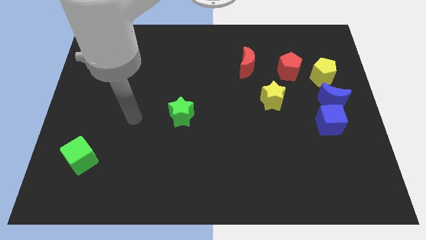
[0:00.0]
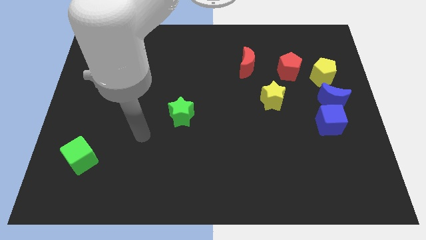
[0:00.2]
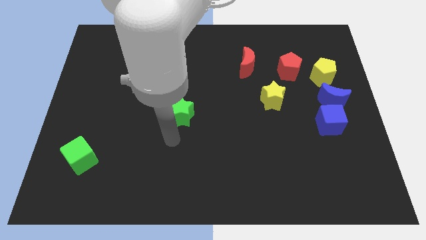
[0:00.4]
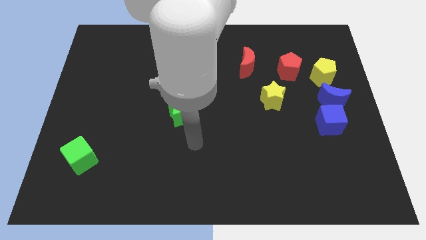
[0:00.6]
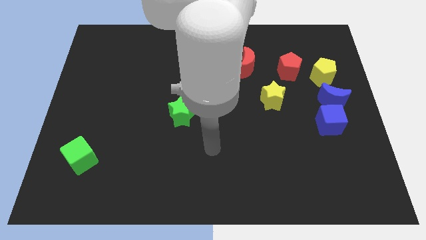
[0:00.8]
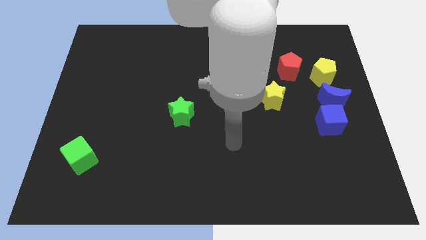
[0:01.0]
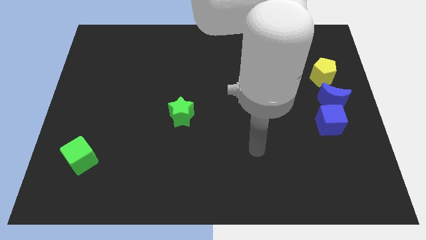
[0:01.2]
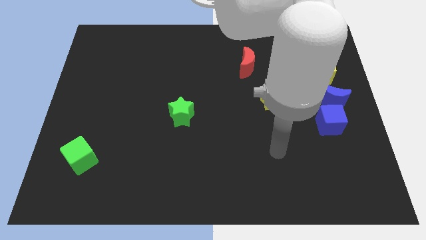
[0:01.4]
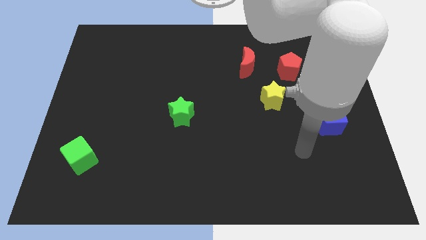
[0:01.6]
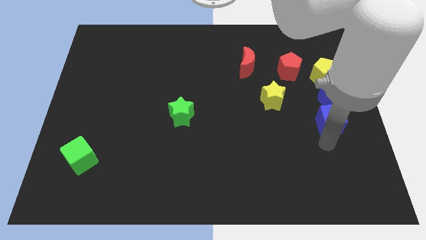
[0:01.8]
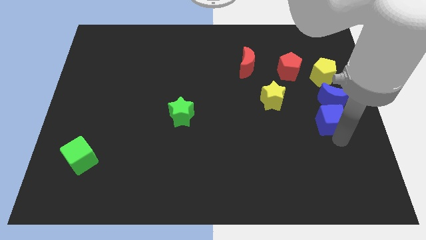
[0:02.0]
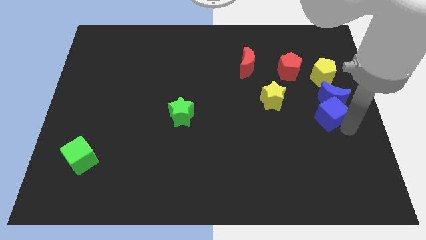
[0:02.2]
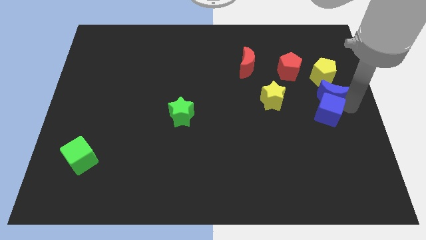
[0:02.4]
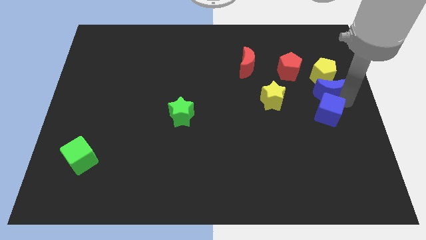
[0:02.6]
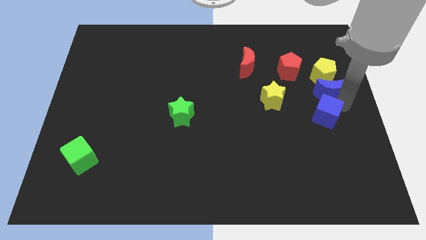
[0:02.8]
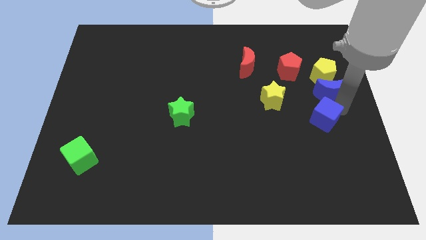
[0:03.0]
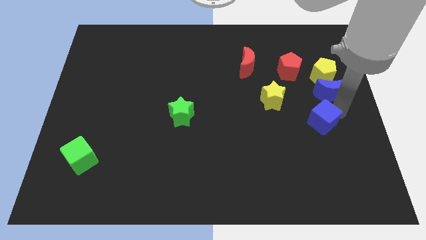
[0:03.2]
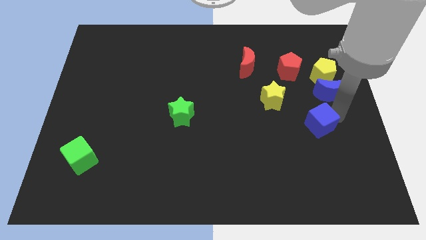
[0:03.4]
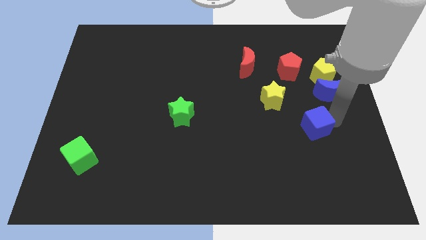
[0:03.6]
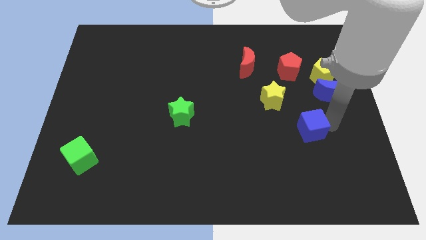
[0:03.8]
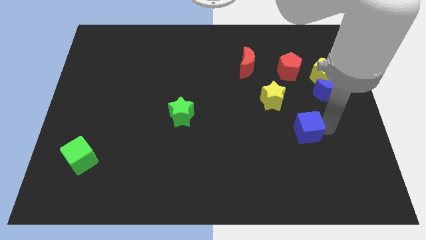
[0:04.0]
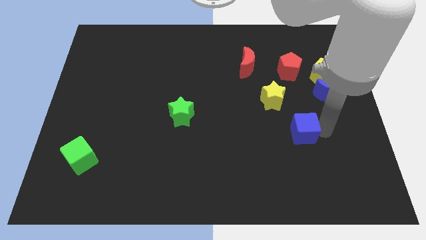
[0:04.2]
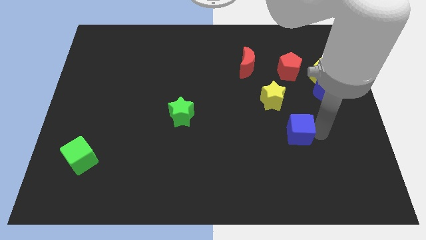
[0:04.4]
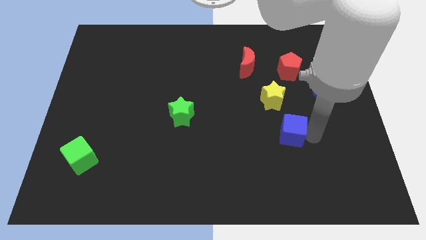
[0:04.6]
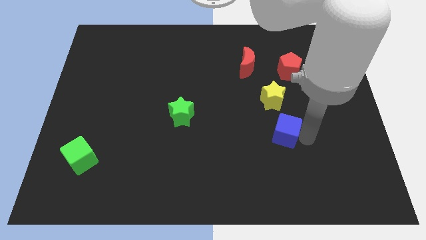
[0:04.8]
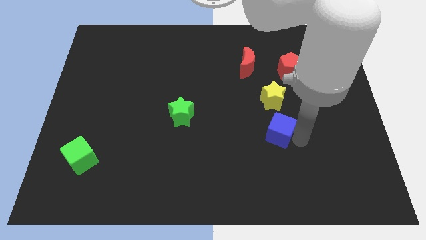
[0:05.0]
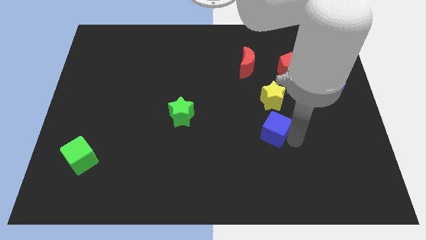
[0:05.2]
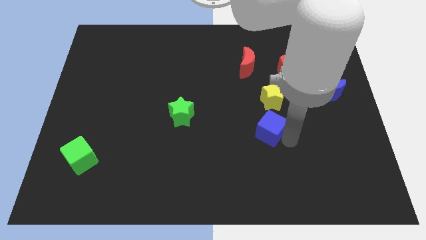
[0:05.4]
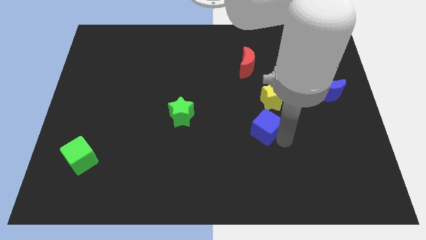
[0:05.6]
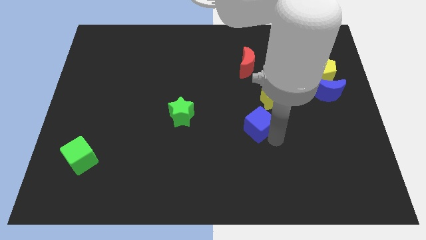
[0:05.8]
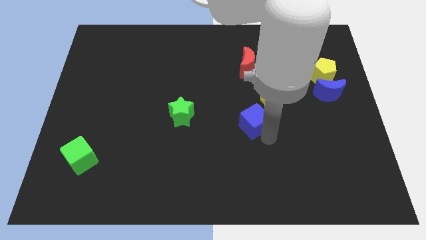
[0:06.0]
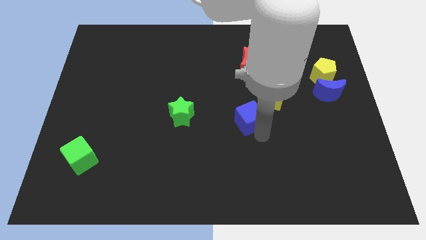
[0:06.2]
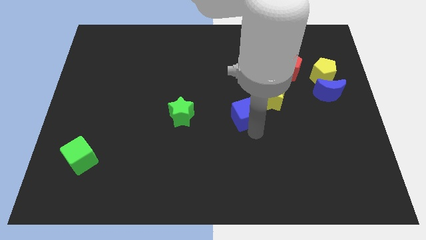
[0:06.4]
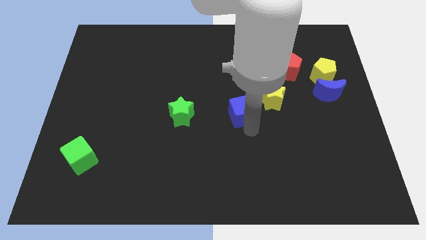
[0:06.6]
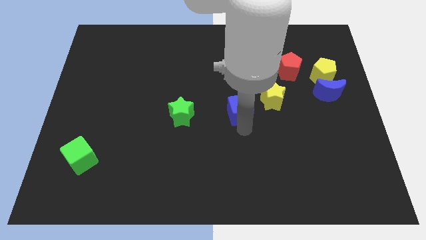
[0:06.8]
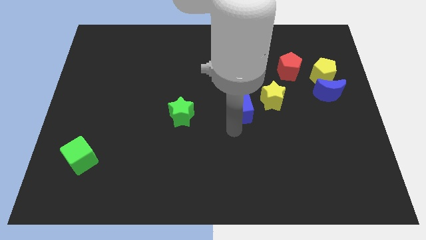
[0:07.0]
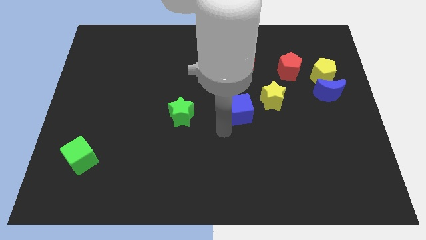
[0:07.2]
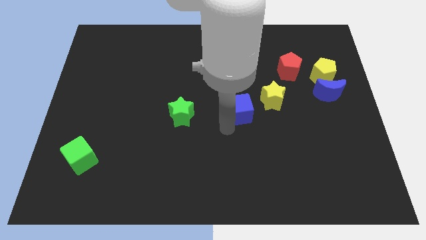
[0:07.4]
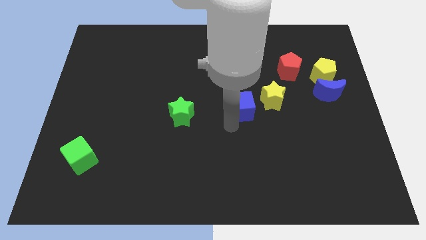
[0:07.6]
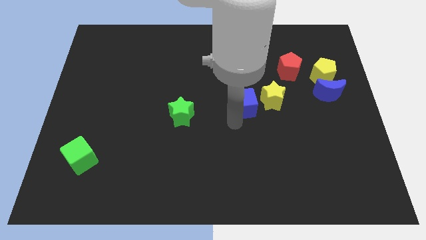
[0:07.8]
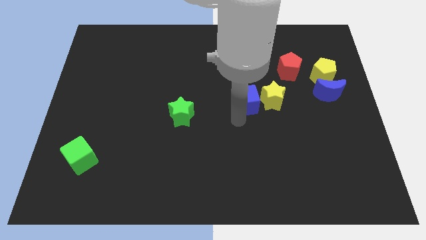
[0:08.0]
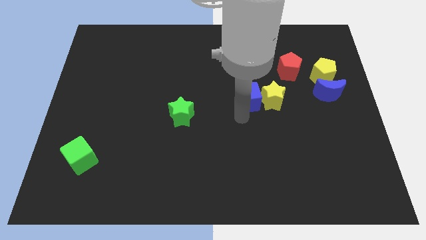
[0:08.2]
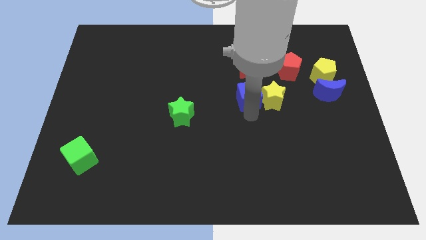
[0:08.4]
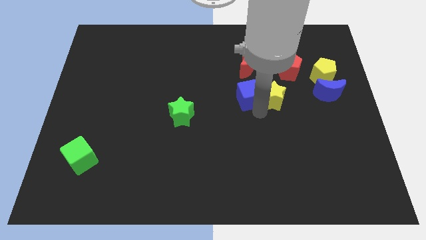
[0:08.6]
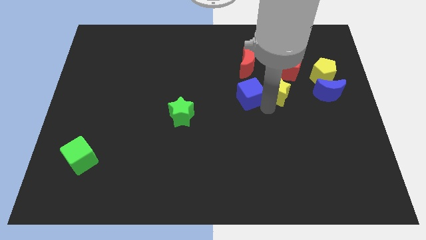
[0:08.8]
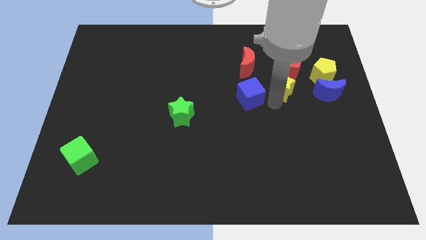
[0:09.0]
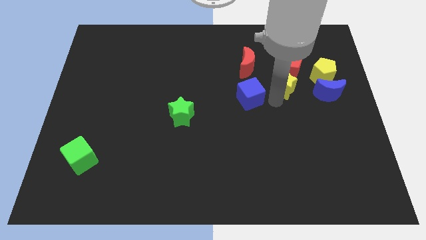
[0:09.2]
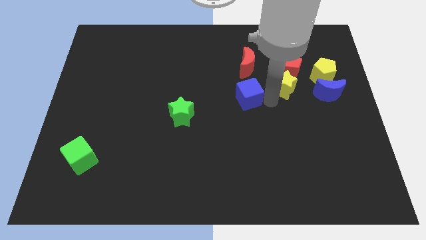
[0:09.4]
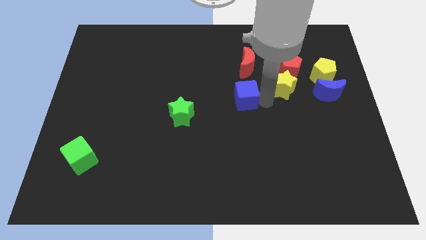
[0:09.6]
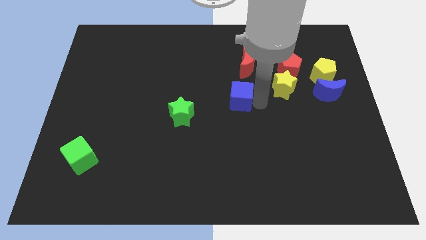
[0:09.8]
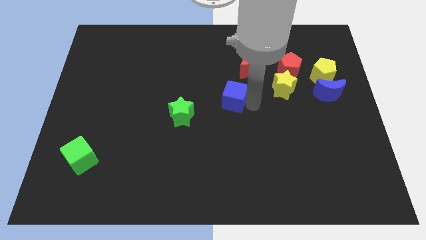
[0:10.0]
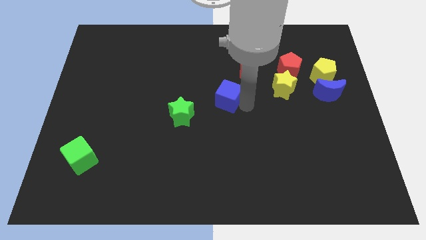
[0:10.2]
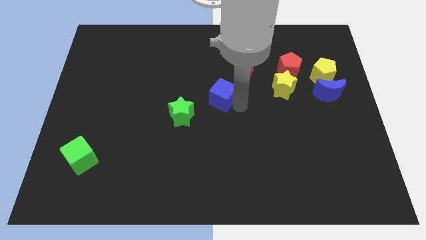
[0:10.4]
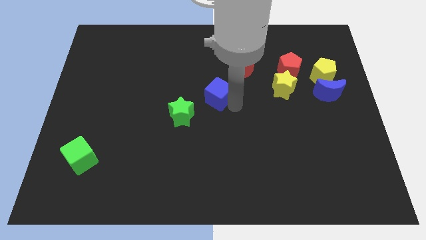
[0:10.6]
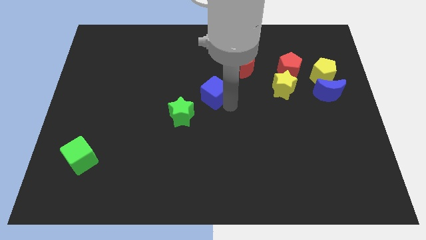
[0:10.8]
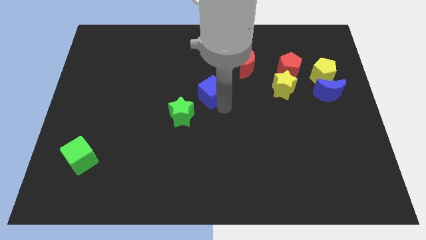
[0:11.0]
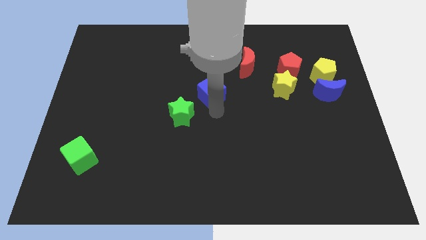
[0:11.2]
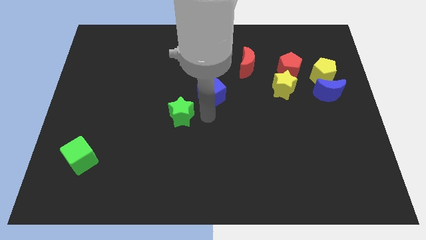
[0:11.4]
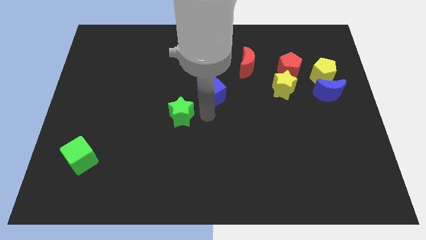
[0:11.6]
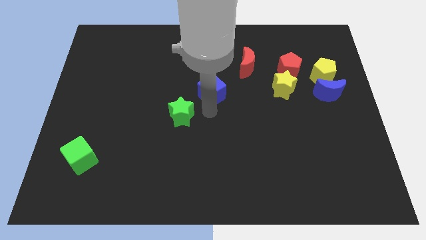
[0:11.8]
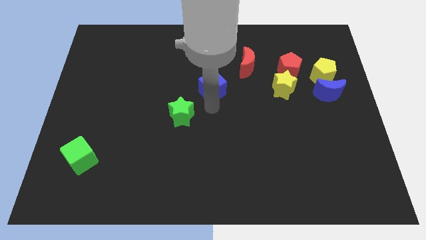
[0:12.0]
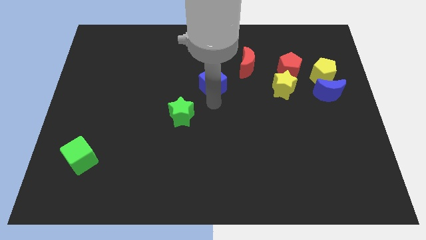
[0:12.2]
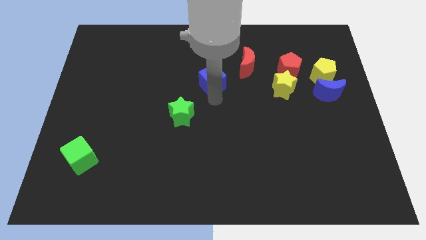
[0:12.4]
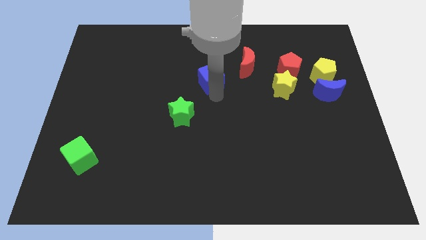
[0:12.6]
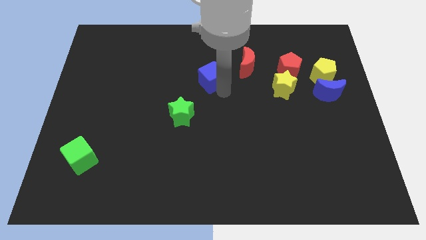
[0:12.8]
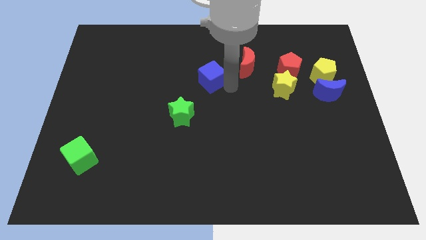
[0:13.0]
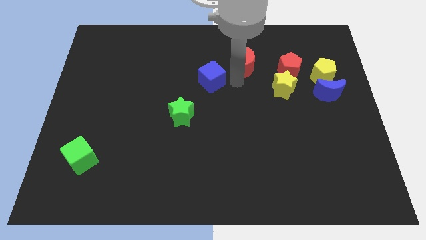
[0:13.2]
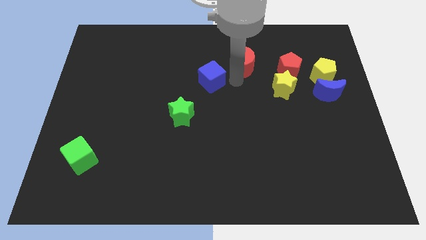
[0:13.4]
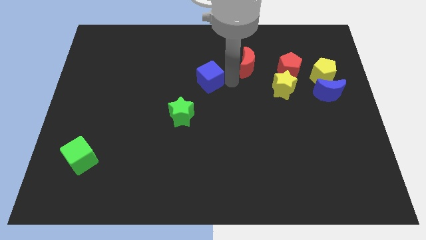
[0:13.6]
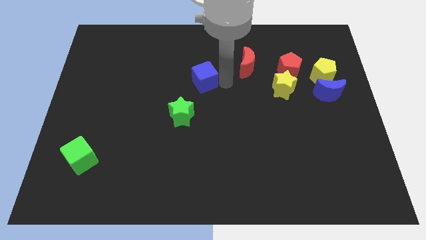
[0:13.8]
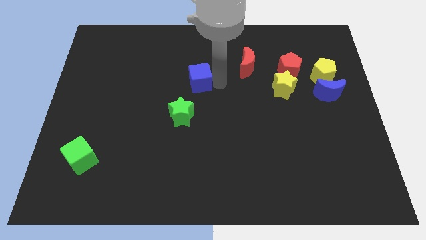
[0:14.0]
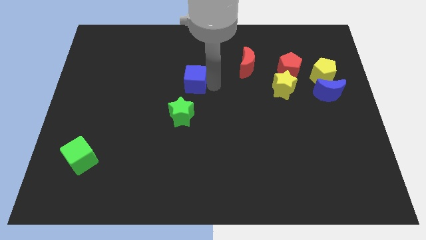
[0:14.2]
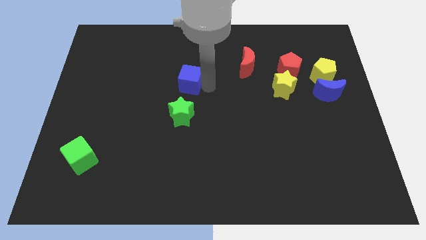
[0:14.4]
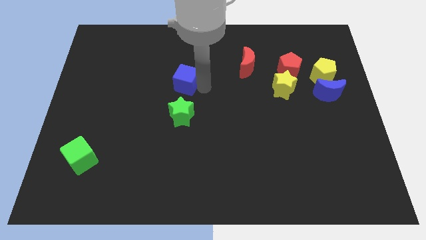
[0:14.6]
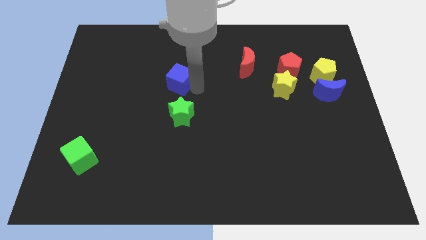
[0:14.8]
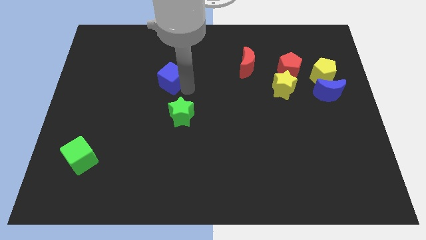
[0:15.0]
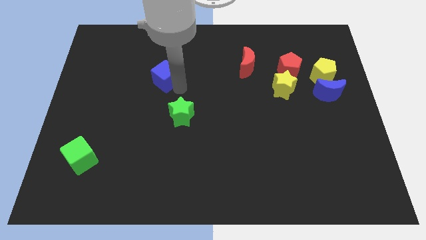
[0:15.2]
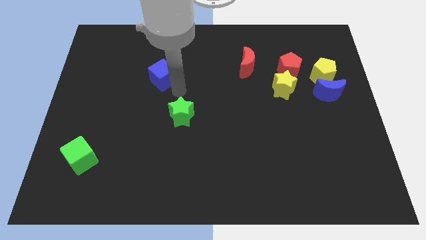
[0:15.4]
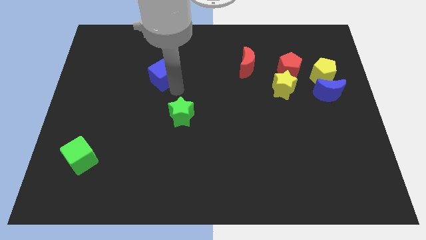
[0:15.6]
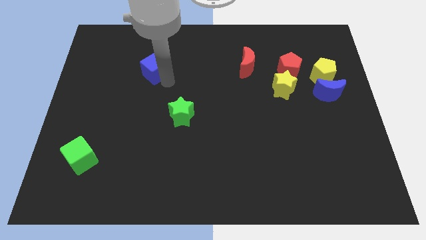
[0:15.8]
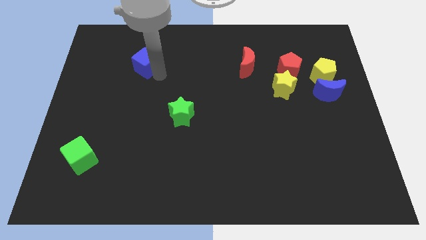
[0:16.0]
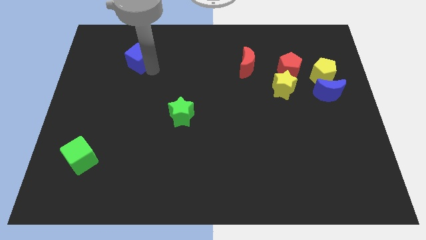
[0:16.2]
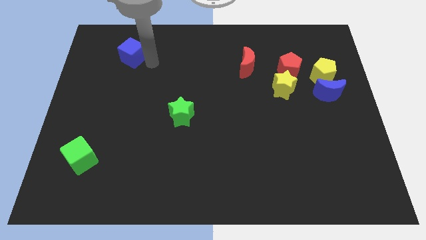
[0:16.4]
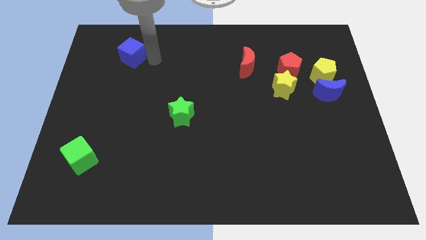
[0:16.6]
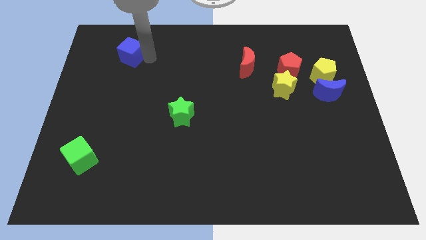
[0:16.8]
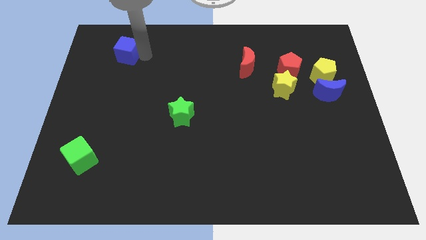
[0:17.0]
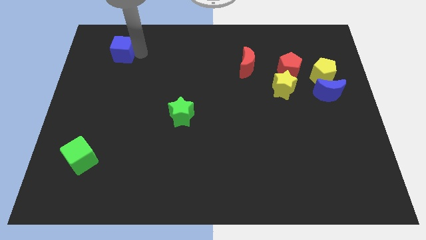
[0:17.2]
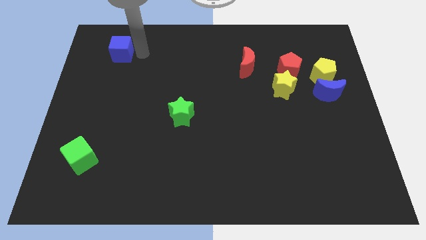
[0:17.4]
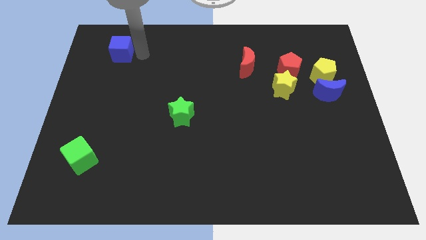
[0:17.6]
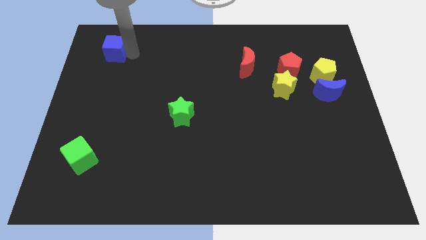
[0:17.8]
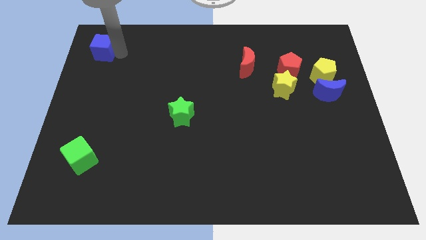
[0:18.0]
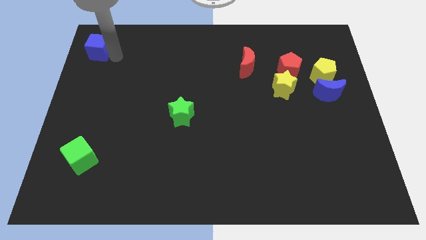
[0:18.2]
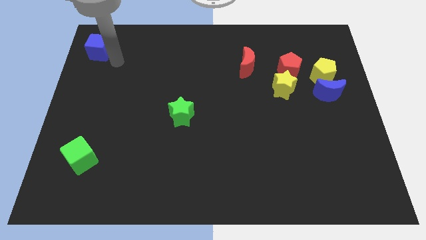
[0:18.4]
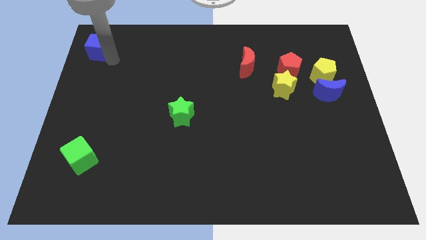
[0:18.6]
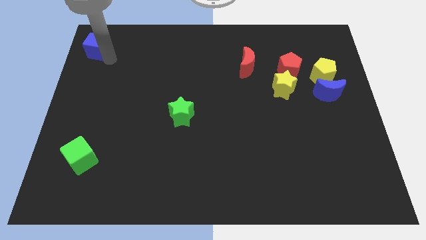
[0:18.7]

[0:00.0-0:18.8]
push the blue cube to the top left corner
